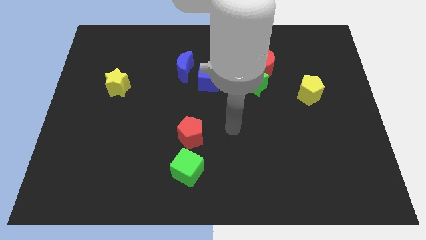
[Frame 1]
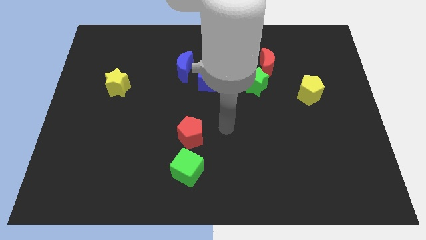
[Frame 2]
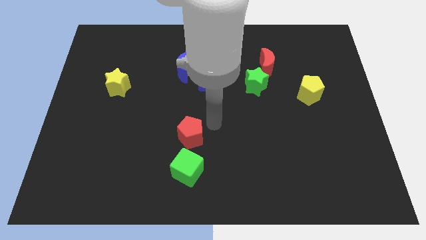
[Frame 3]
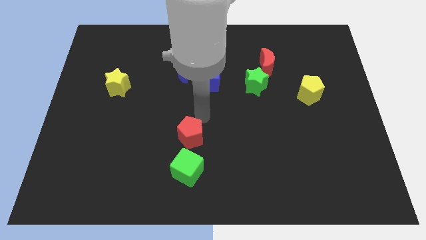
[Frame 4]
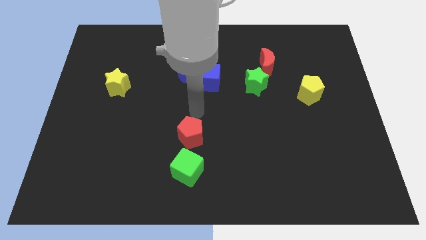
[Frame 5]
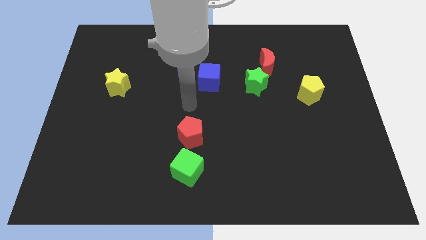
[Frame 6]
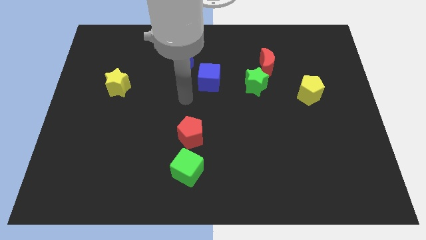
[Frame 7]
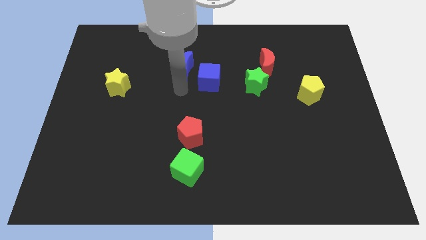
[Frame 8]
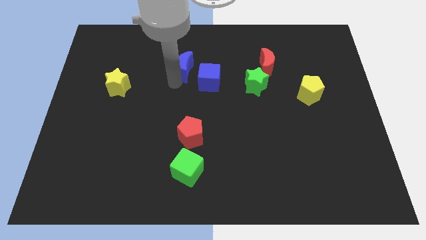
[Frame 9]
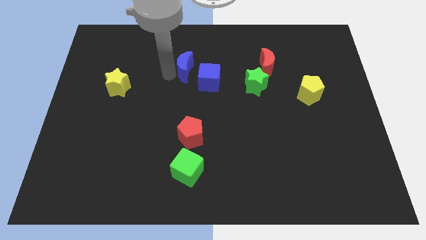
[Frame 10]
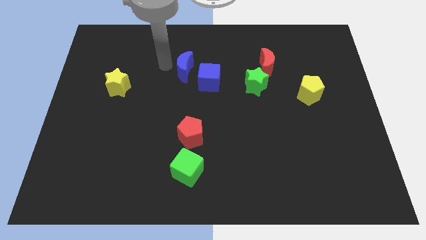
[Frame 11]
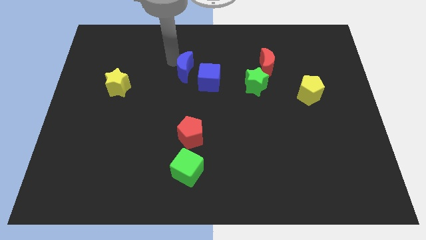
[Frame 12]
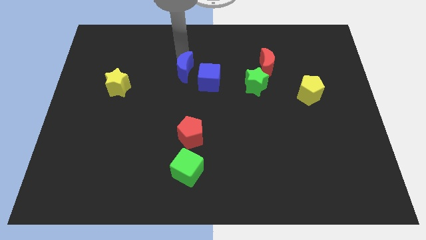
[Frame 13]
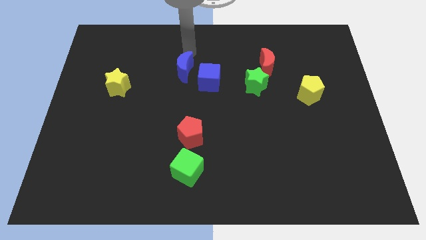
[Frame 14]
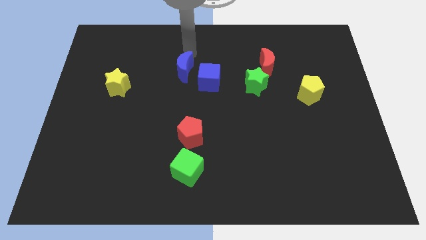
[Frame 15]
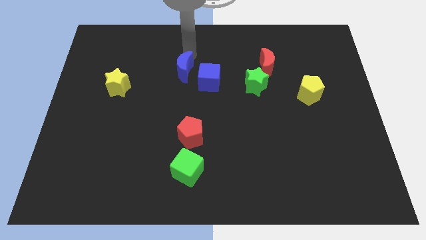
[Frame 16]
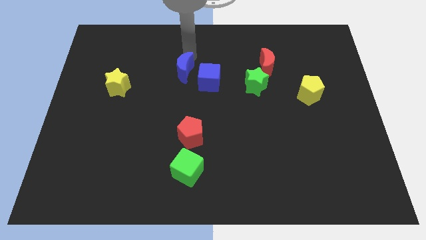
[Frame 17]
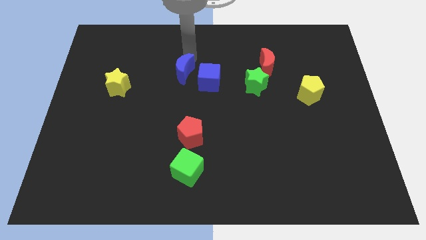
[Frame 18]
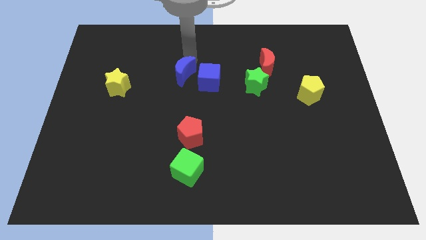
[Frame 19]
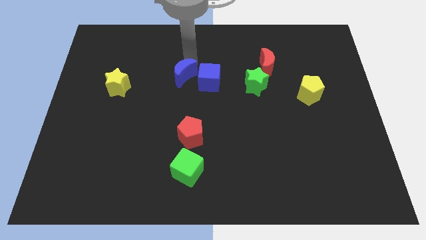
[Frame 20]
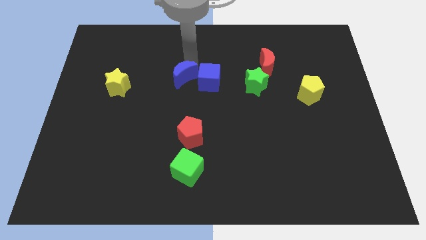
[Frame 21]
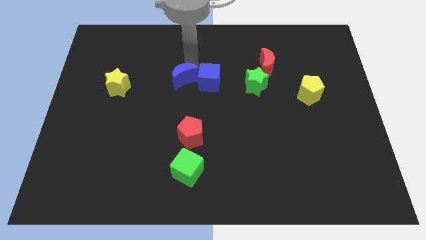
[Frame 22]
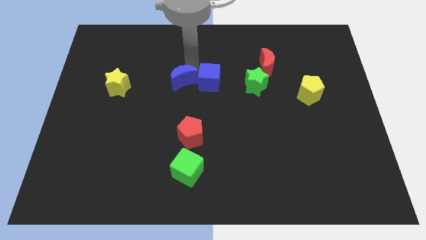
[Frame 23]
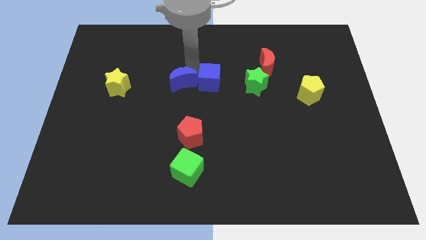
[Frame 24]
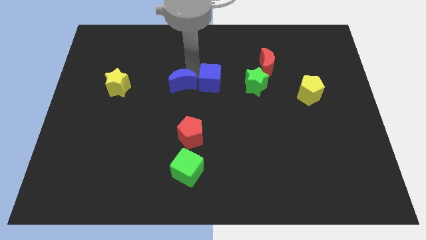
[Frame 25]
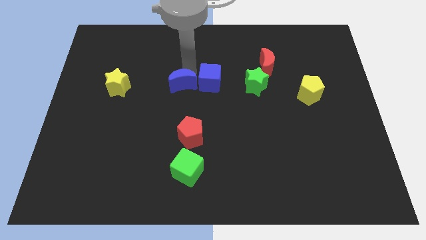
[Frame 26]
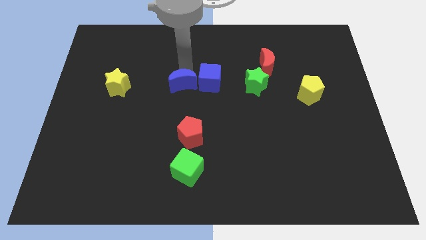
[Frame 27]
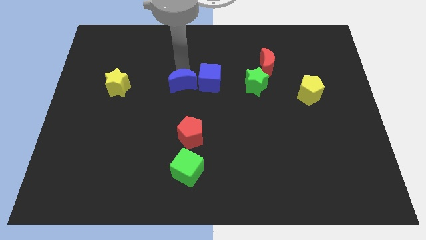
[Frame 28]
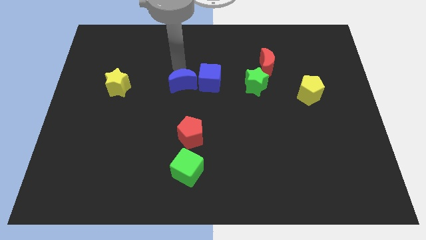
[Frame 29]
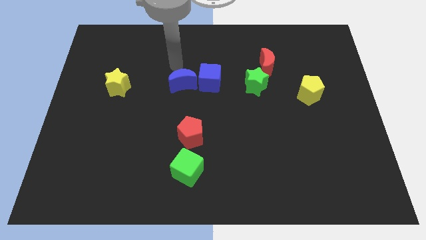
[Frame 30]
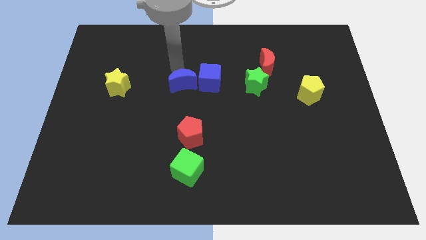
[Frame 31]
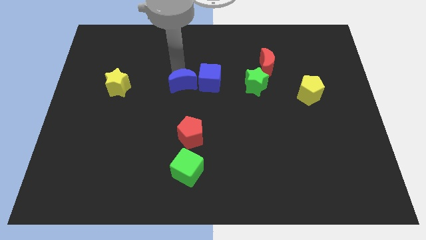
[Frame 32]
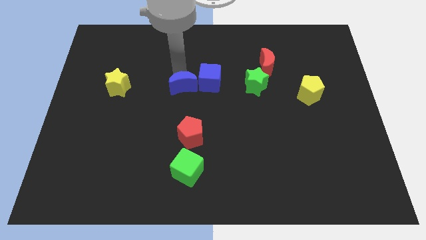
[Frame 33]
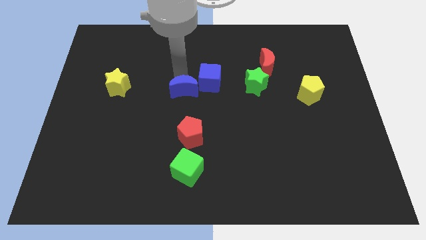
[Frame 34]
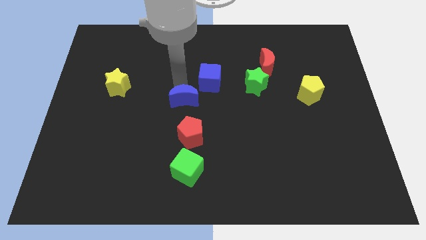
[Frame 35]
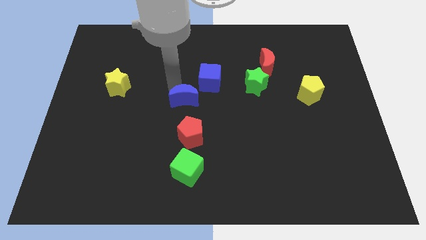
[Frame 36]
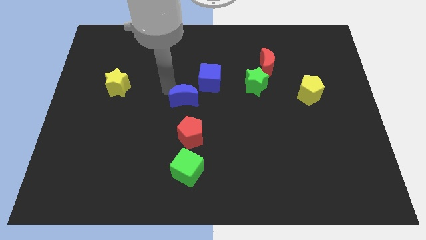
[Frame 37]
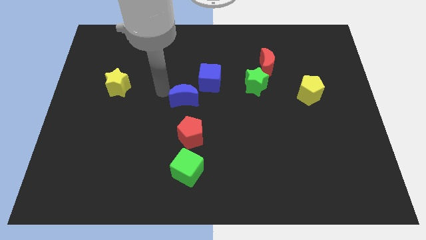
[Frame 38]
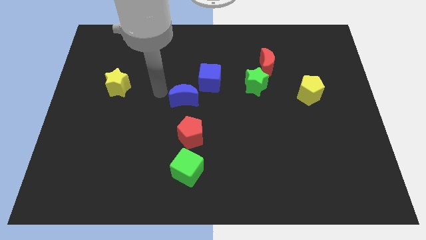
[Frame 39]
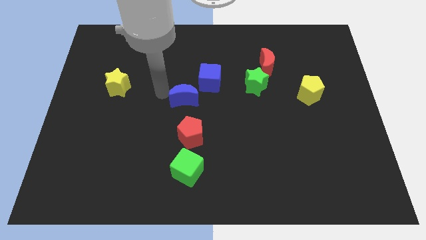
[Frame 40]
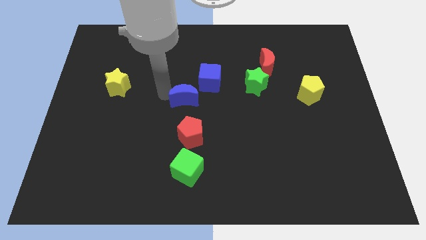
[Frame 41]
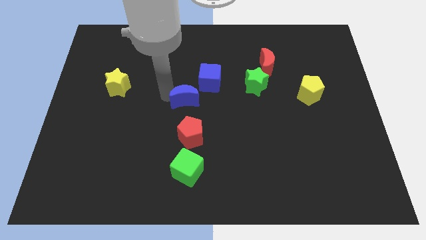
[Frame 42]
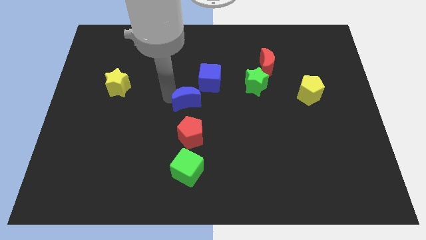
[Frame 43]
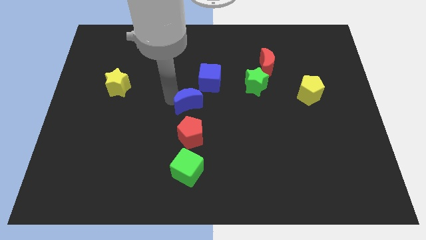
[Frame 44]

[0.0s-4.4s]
move the blue moon somewhat diagonally downwards and right

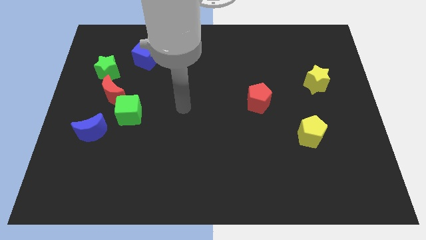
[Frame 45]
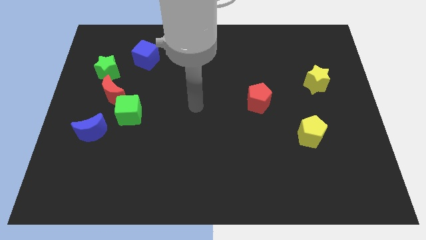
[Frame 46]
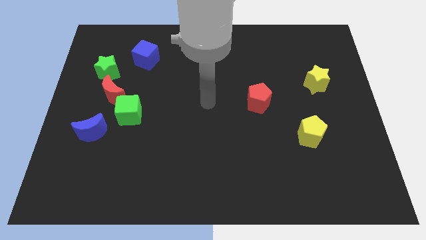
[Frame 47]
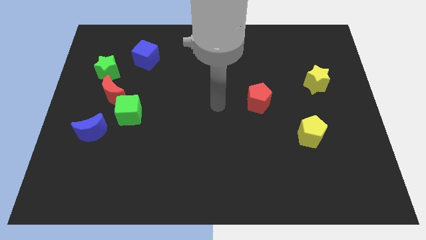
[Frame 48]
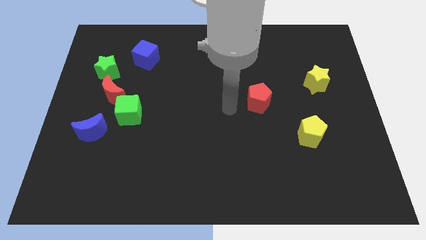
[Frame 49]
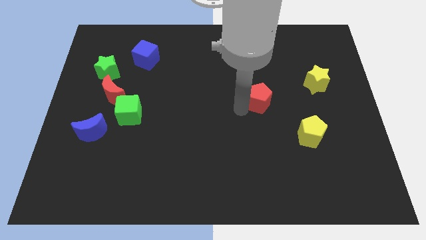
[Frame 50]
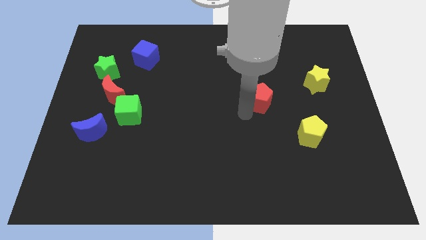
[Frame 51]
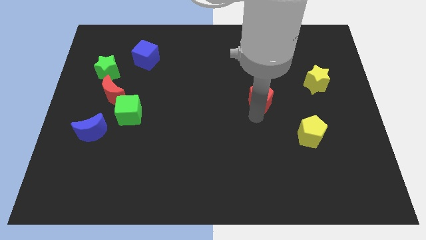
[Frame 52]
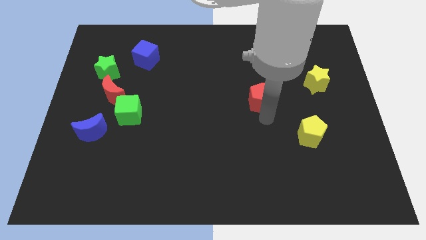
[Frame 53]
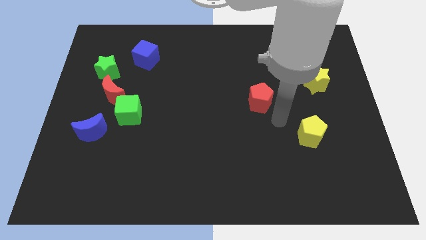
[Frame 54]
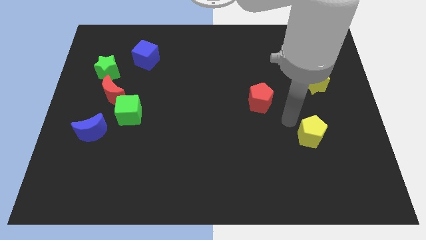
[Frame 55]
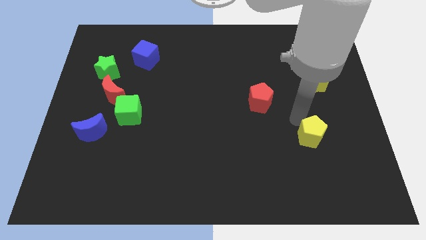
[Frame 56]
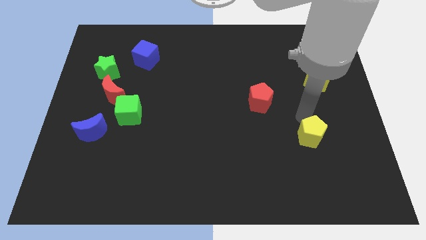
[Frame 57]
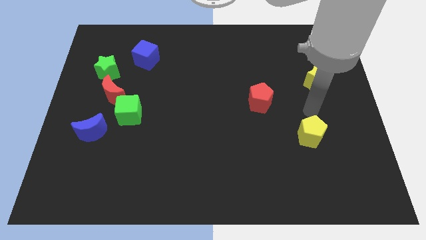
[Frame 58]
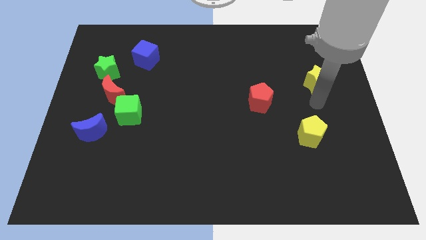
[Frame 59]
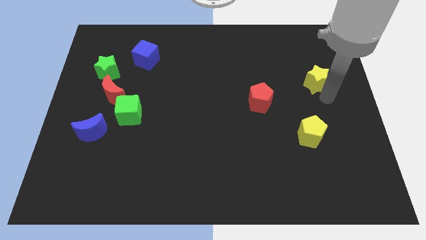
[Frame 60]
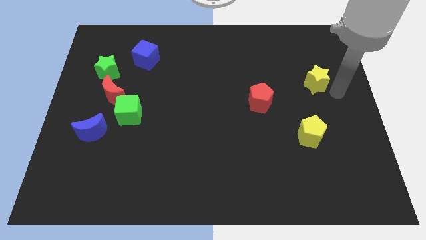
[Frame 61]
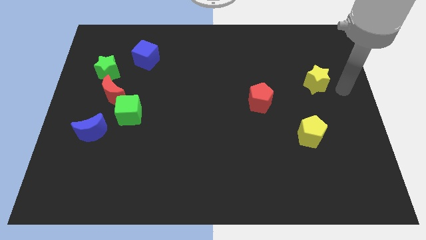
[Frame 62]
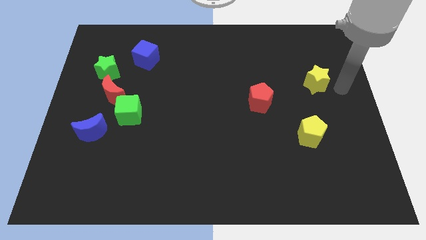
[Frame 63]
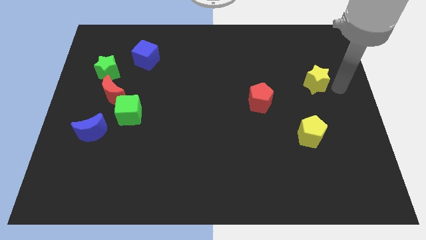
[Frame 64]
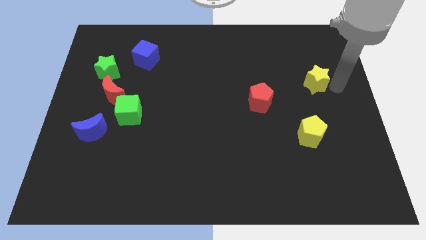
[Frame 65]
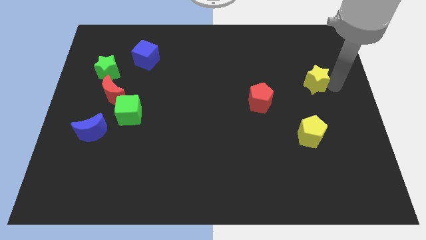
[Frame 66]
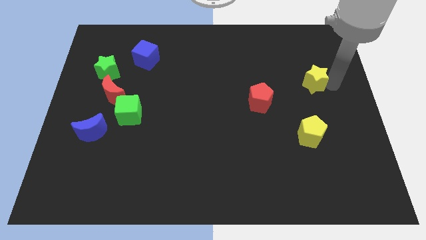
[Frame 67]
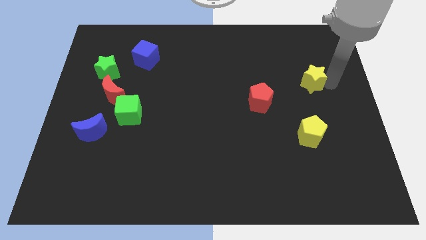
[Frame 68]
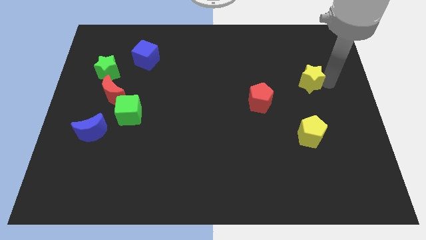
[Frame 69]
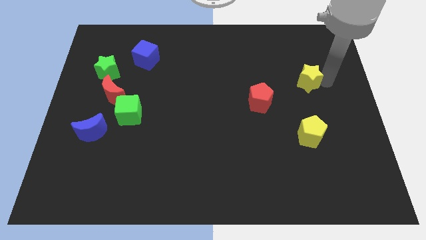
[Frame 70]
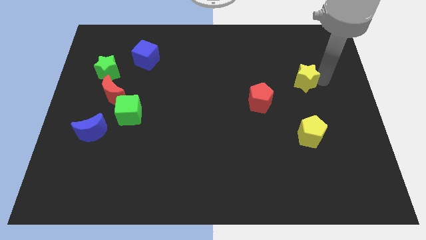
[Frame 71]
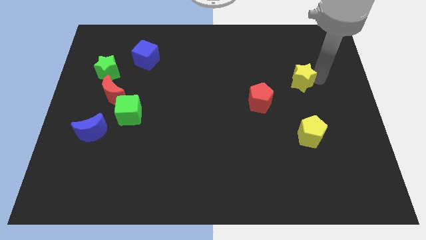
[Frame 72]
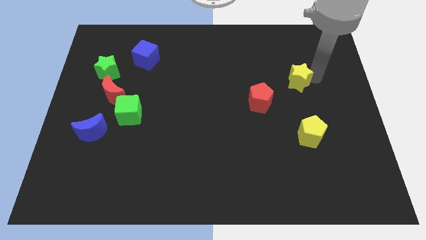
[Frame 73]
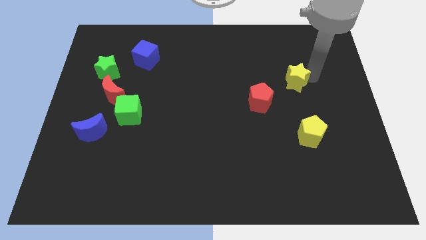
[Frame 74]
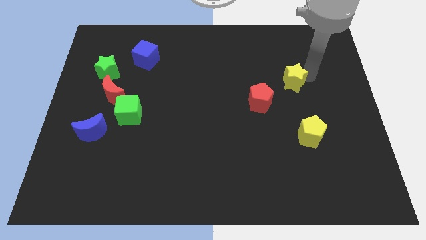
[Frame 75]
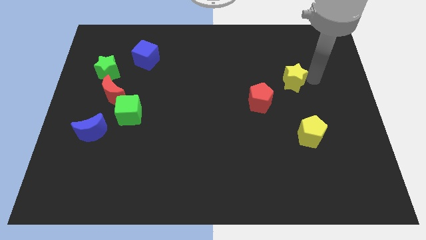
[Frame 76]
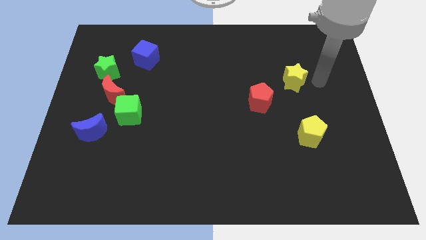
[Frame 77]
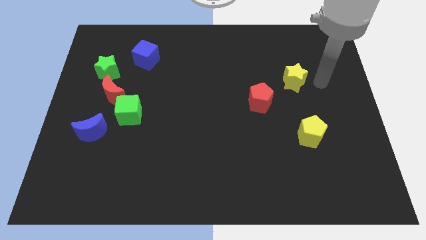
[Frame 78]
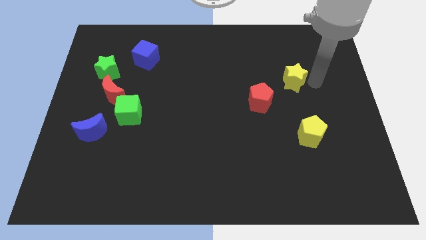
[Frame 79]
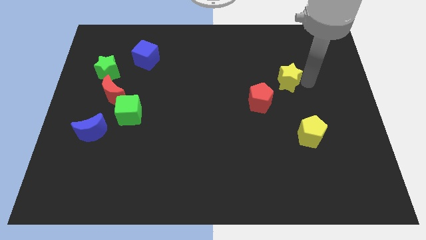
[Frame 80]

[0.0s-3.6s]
slightly push the yellow star left
